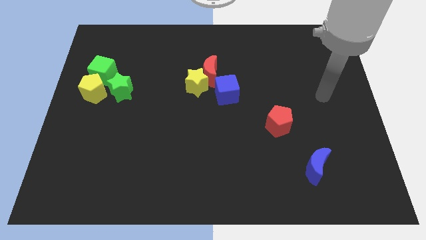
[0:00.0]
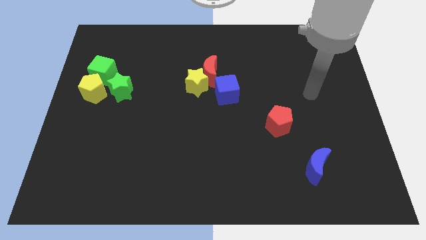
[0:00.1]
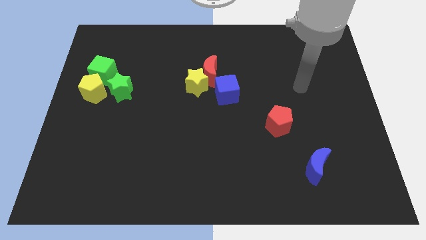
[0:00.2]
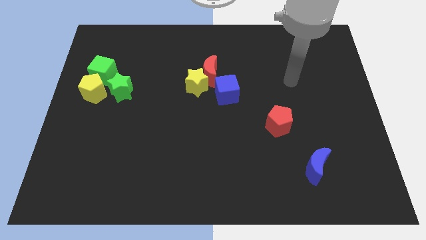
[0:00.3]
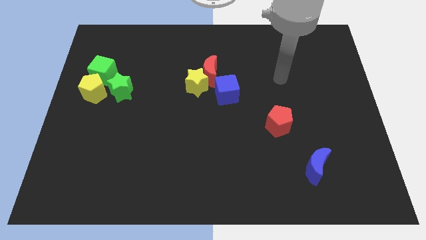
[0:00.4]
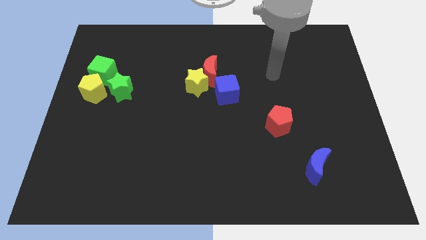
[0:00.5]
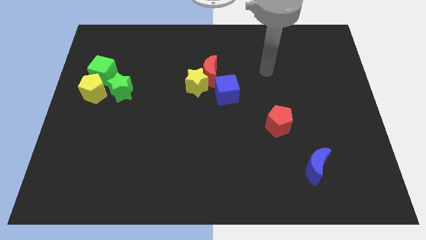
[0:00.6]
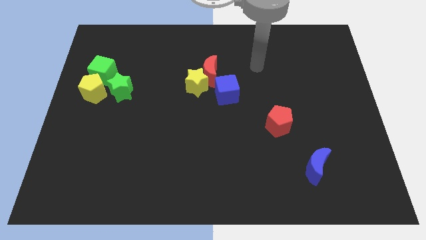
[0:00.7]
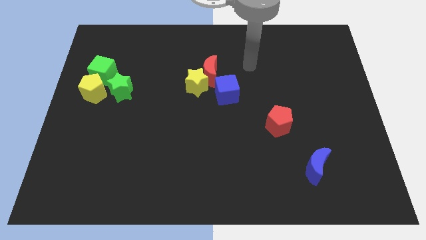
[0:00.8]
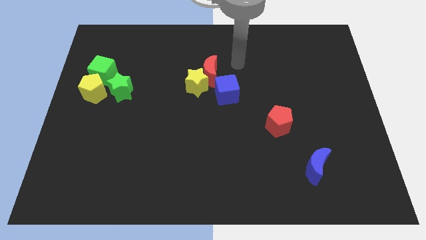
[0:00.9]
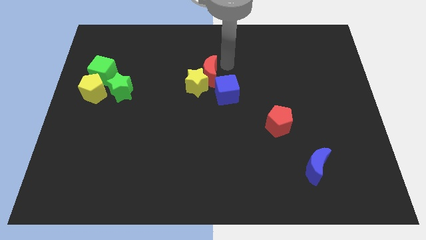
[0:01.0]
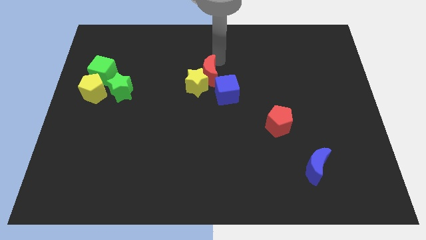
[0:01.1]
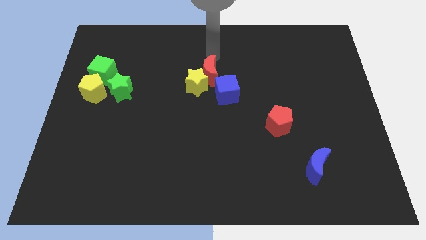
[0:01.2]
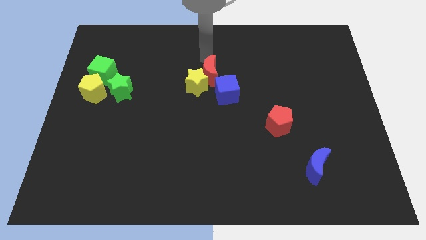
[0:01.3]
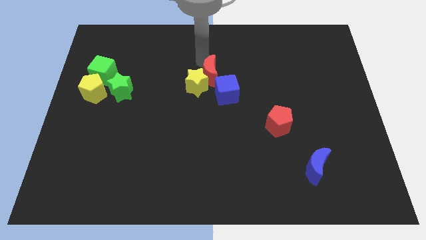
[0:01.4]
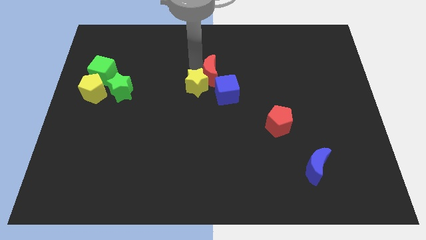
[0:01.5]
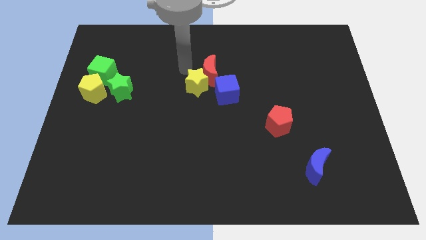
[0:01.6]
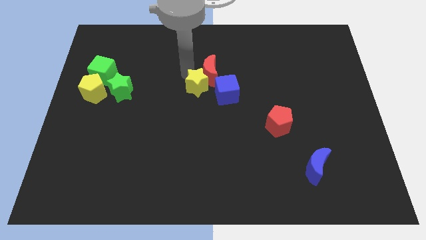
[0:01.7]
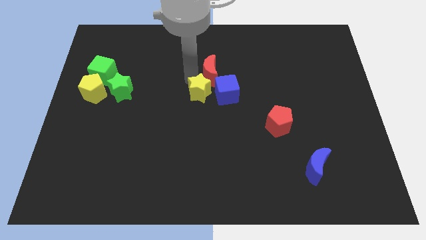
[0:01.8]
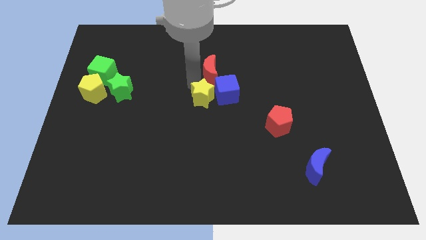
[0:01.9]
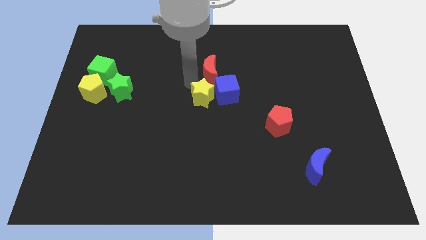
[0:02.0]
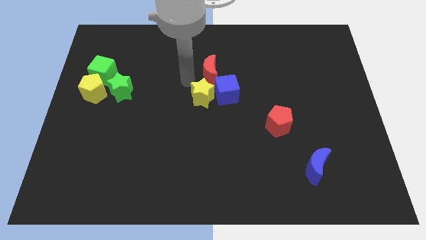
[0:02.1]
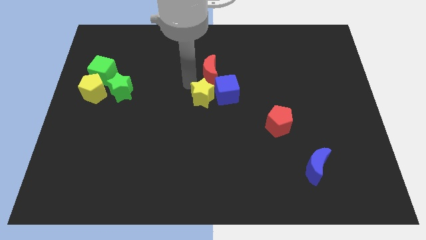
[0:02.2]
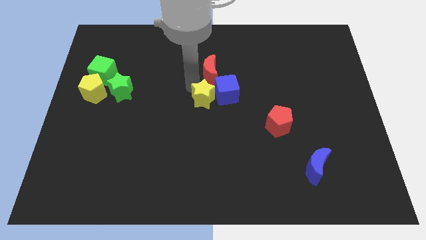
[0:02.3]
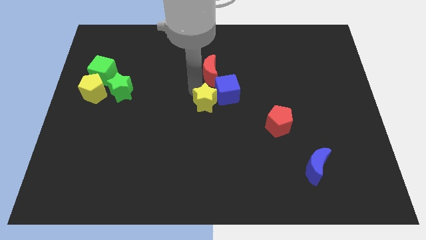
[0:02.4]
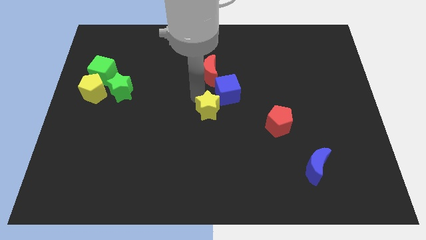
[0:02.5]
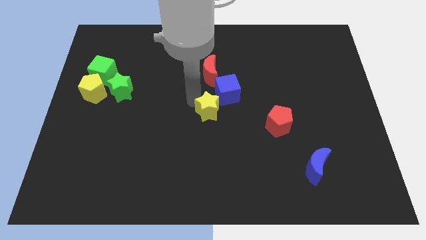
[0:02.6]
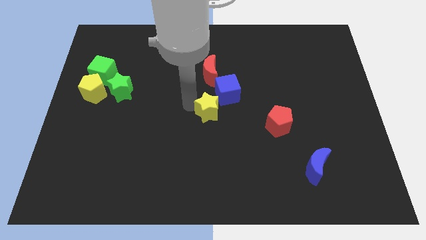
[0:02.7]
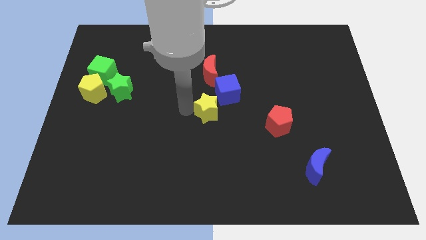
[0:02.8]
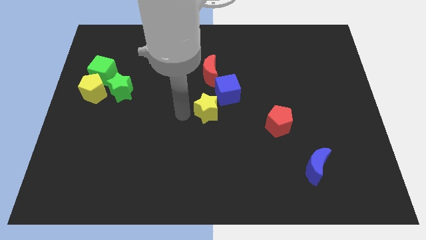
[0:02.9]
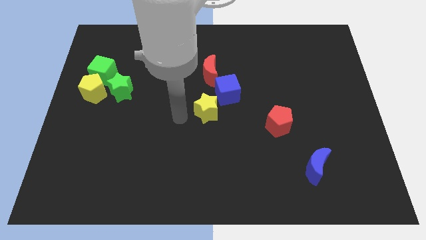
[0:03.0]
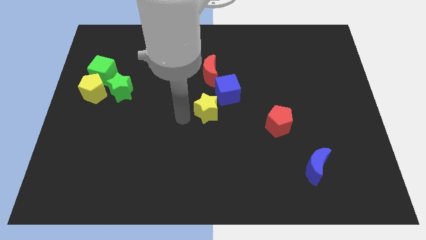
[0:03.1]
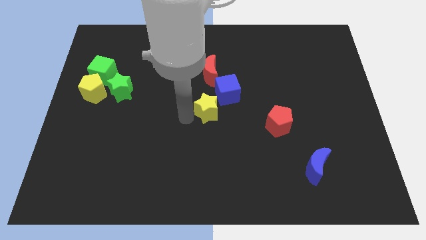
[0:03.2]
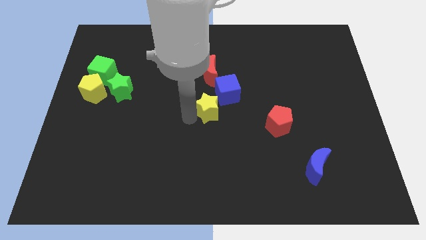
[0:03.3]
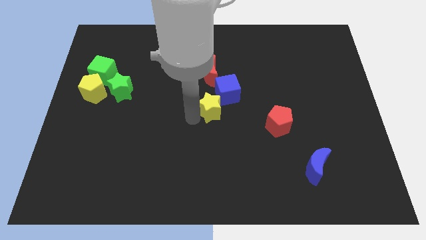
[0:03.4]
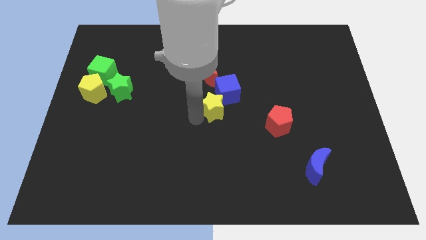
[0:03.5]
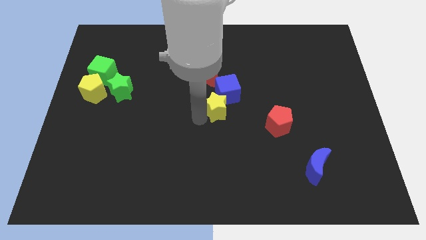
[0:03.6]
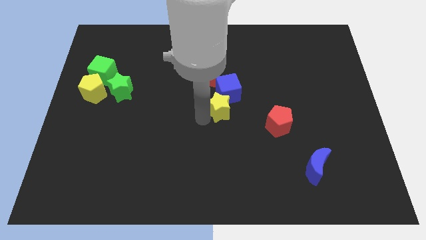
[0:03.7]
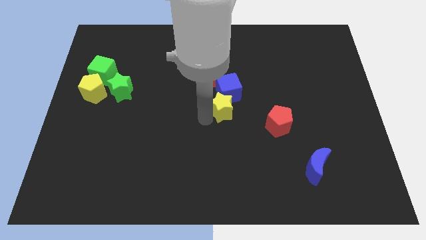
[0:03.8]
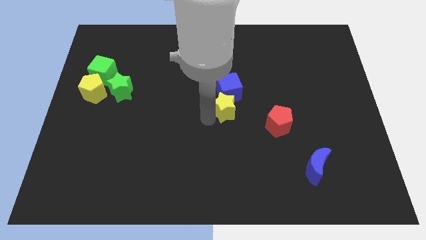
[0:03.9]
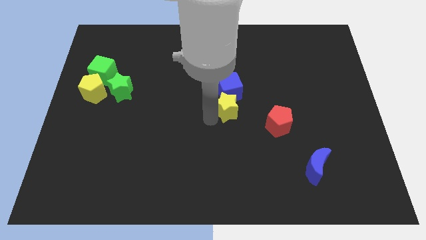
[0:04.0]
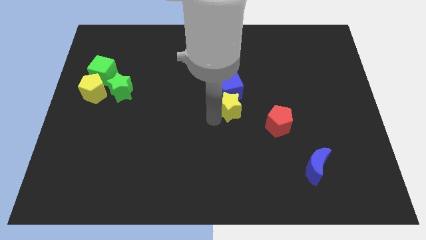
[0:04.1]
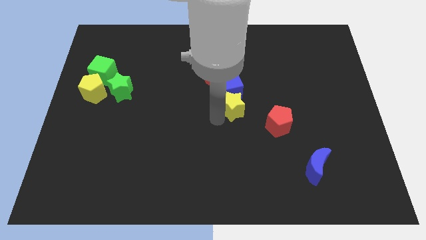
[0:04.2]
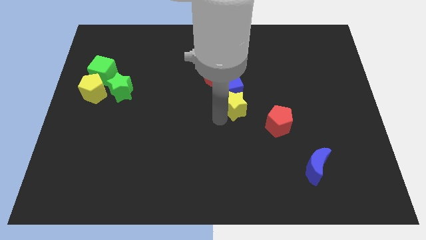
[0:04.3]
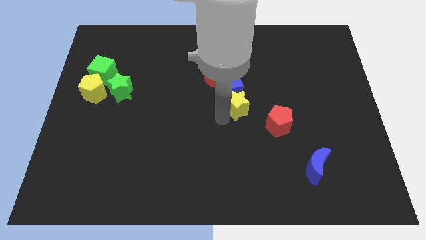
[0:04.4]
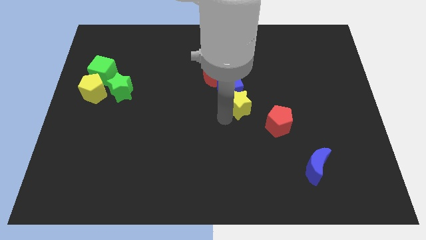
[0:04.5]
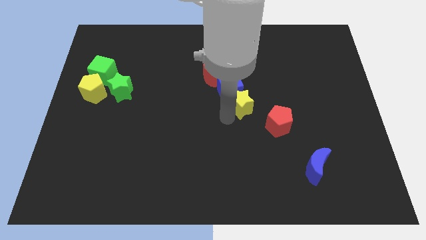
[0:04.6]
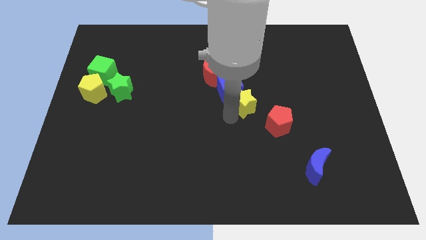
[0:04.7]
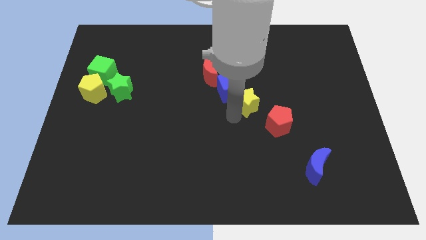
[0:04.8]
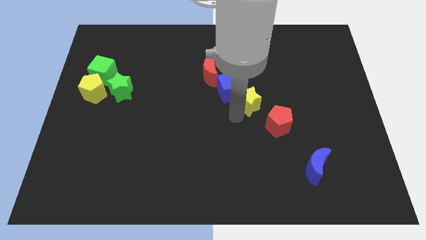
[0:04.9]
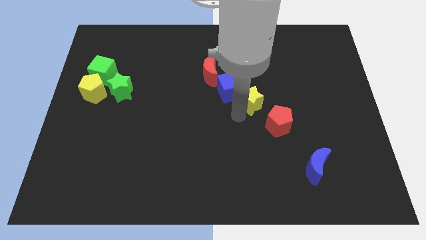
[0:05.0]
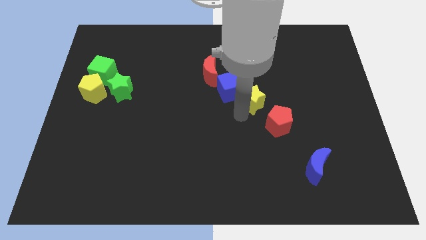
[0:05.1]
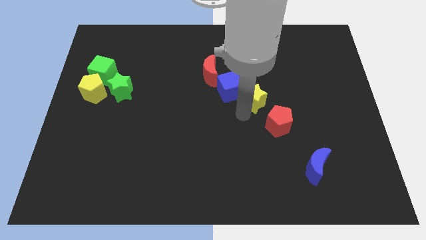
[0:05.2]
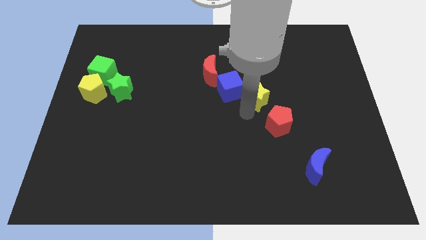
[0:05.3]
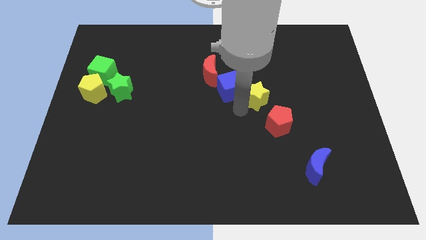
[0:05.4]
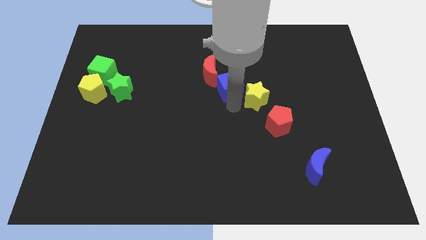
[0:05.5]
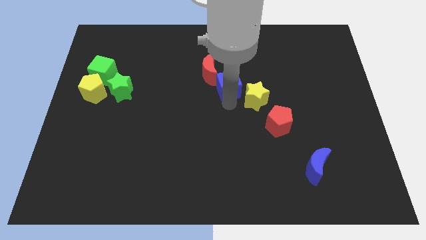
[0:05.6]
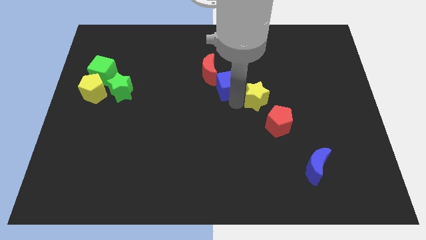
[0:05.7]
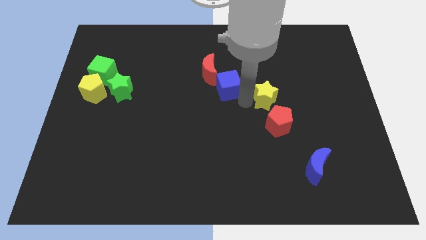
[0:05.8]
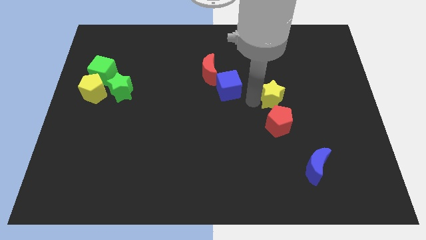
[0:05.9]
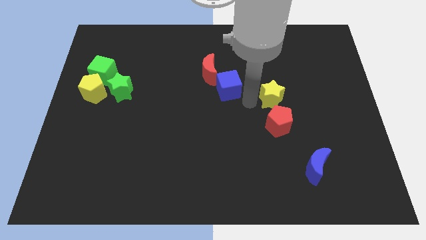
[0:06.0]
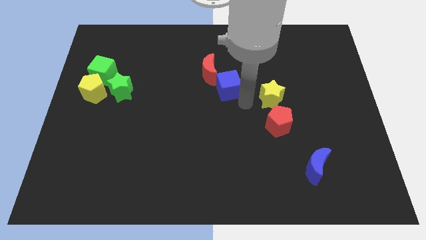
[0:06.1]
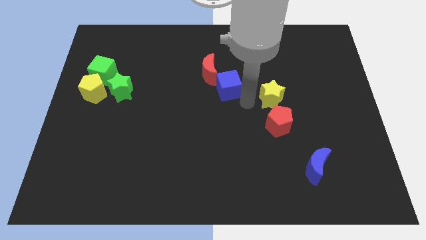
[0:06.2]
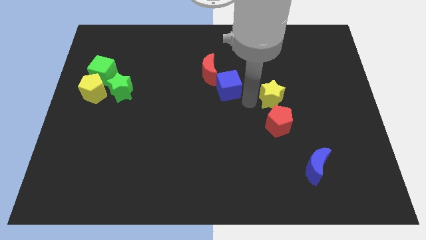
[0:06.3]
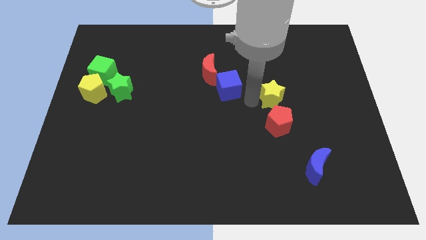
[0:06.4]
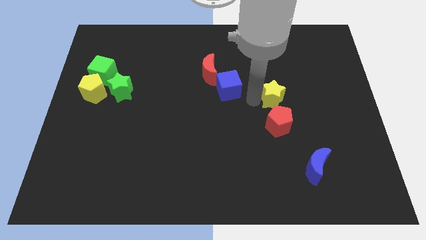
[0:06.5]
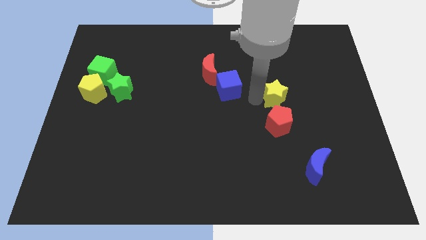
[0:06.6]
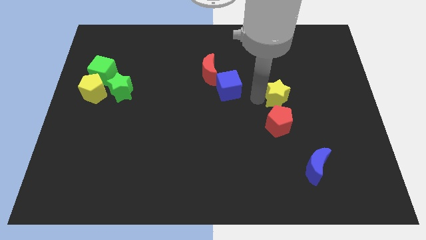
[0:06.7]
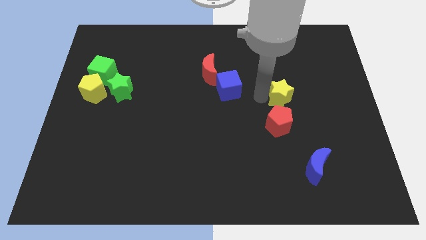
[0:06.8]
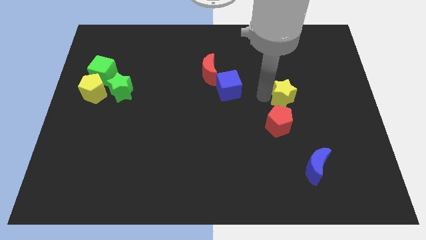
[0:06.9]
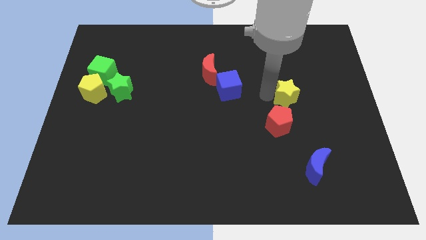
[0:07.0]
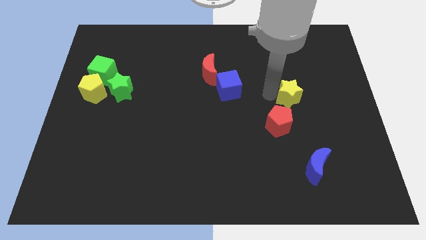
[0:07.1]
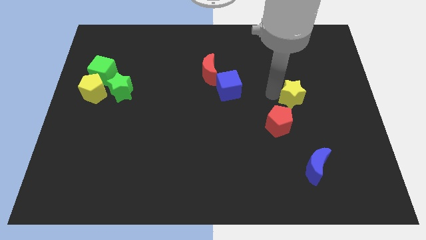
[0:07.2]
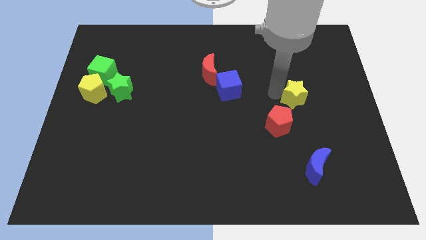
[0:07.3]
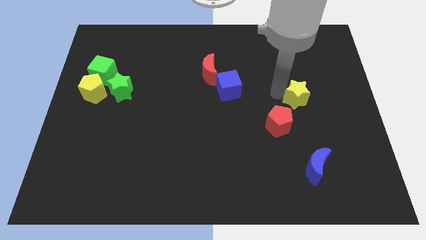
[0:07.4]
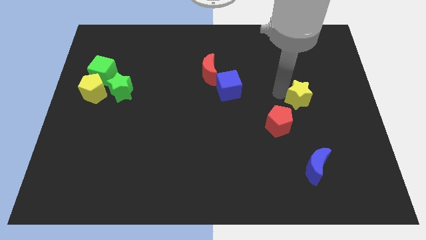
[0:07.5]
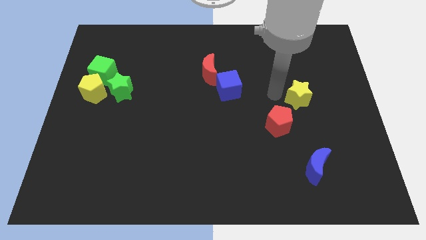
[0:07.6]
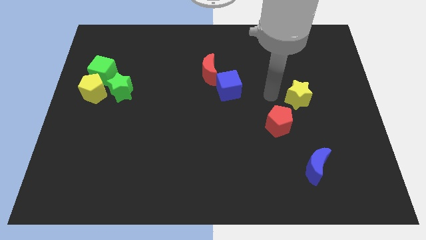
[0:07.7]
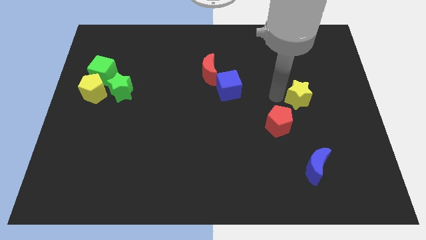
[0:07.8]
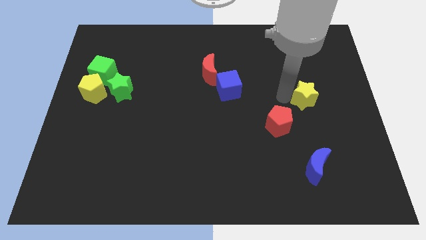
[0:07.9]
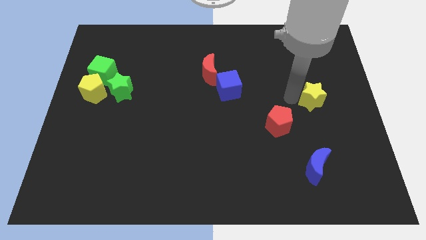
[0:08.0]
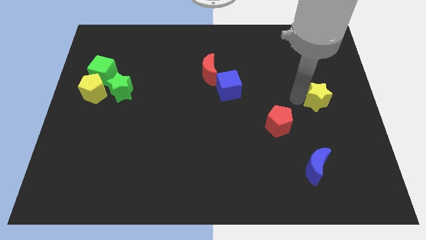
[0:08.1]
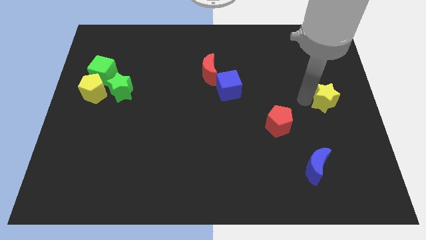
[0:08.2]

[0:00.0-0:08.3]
push the yellow star to the center right
